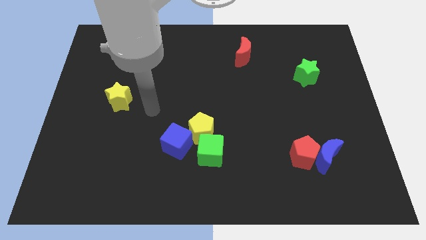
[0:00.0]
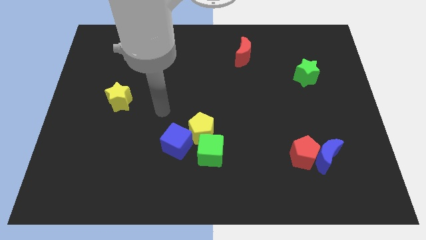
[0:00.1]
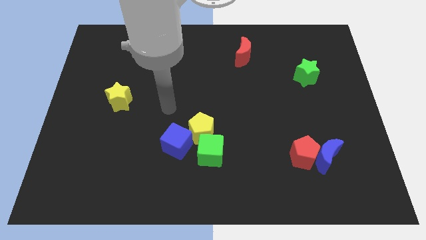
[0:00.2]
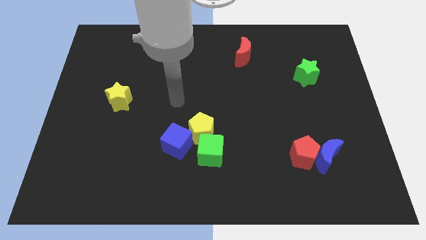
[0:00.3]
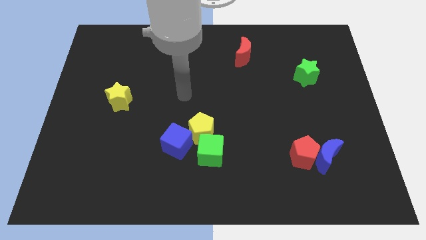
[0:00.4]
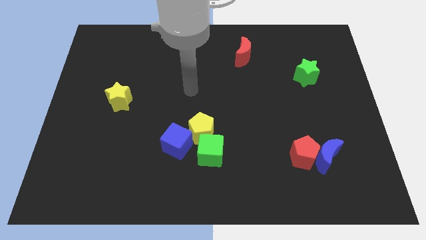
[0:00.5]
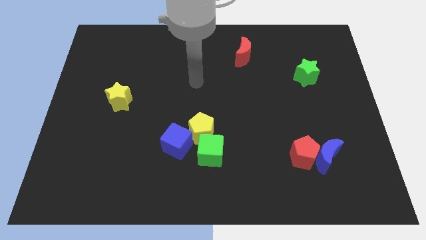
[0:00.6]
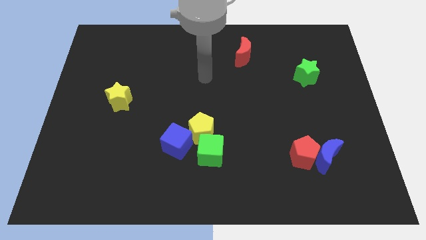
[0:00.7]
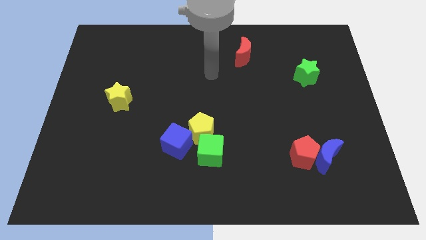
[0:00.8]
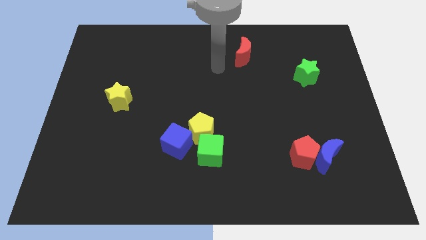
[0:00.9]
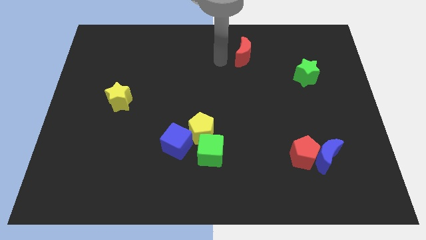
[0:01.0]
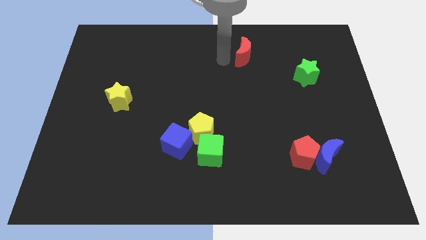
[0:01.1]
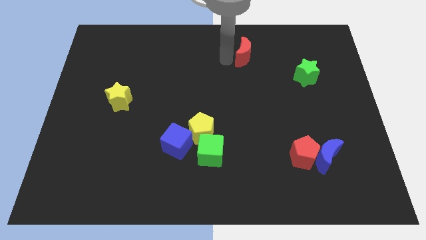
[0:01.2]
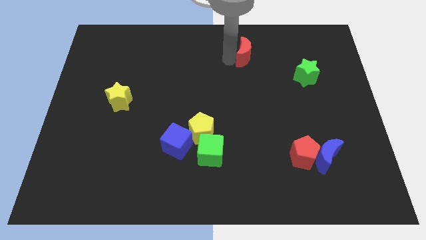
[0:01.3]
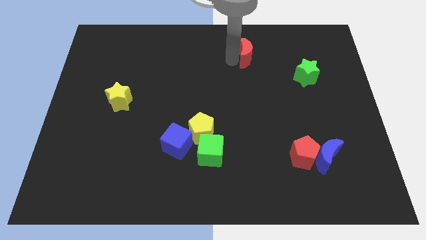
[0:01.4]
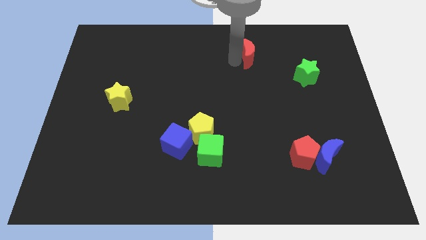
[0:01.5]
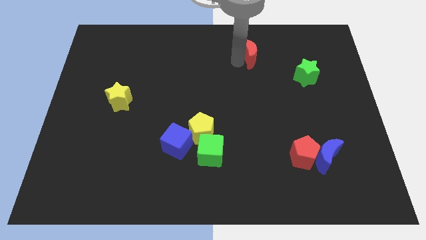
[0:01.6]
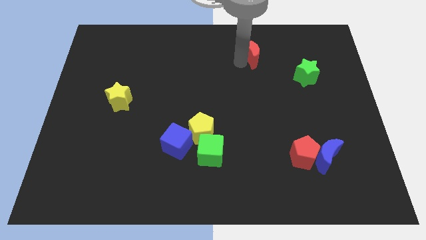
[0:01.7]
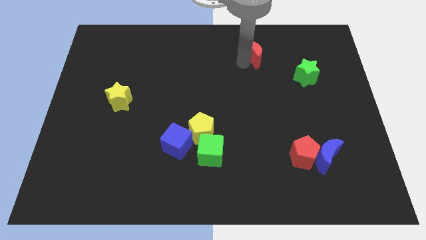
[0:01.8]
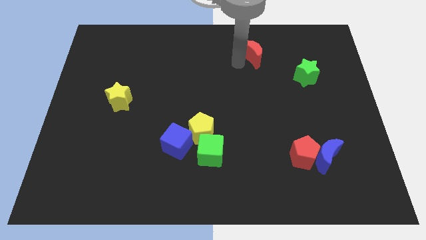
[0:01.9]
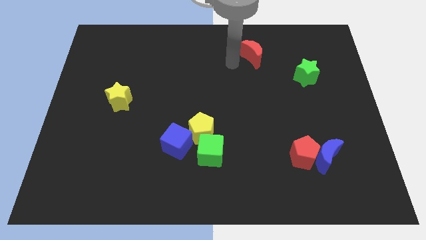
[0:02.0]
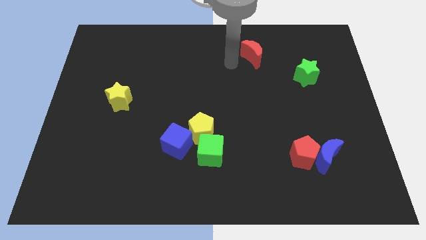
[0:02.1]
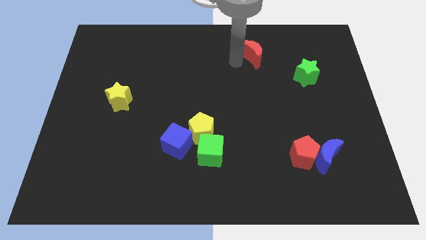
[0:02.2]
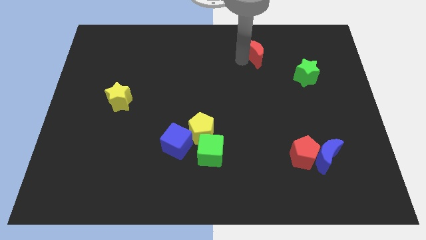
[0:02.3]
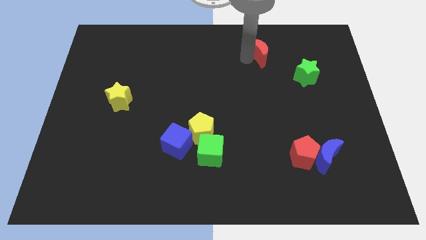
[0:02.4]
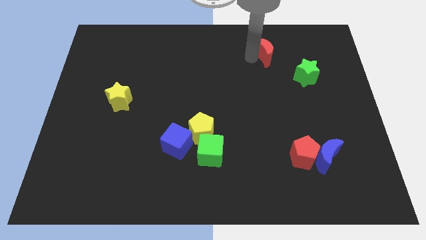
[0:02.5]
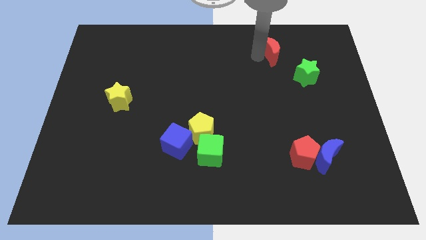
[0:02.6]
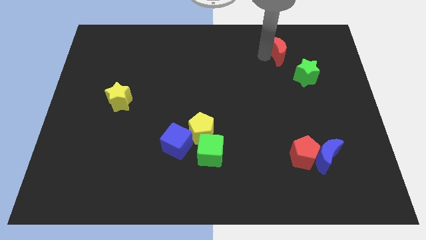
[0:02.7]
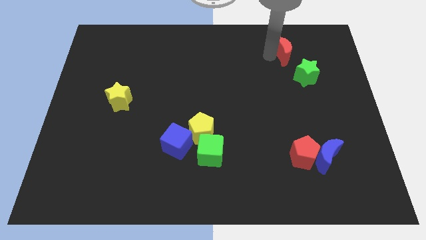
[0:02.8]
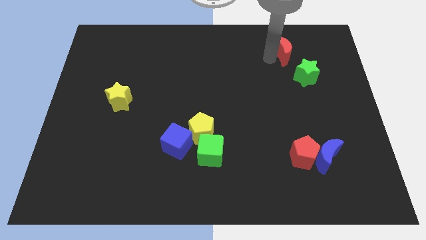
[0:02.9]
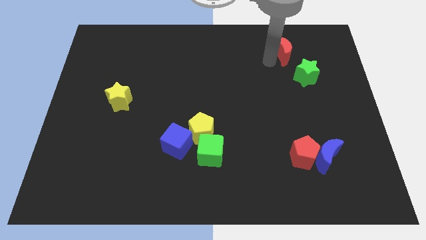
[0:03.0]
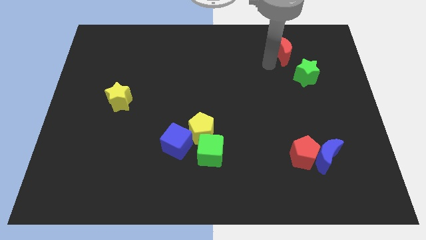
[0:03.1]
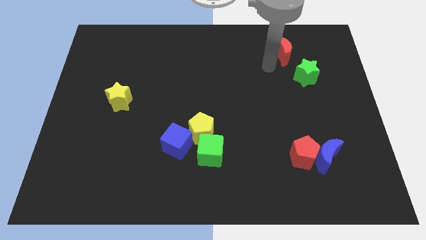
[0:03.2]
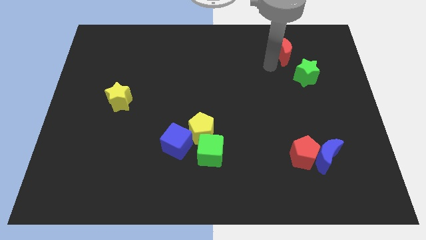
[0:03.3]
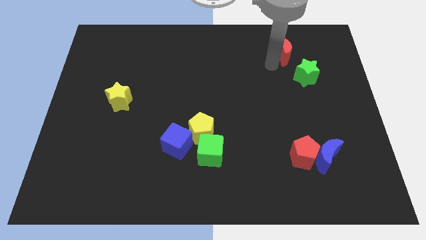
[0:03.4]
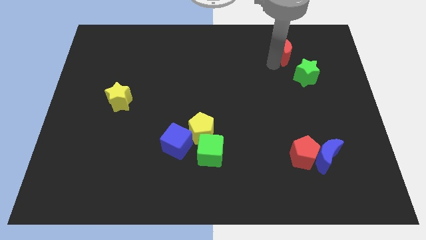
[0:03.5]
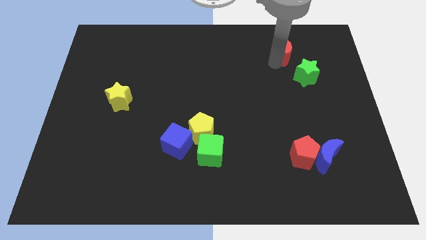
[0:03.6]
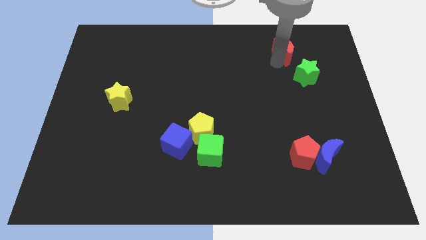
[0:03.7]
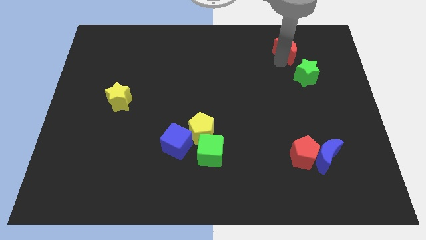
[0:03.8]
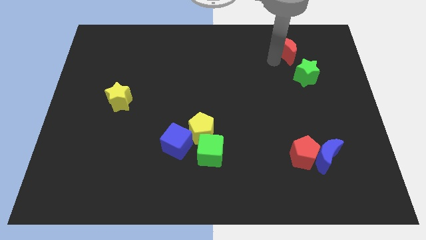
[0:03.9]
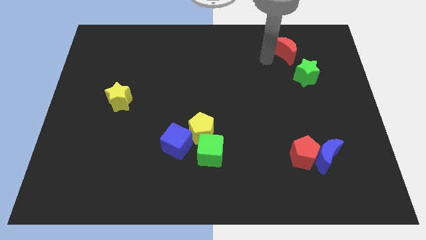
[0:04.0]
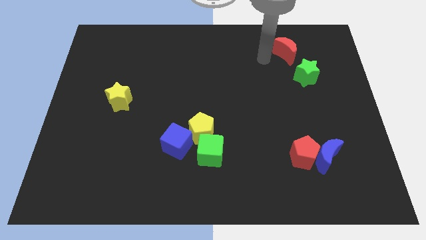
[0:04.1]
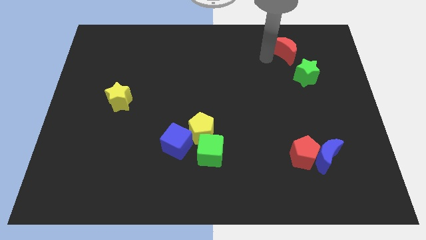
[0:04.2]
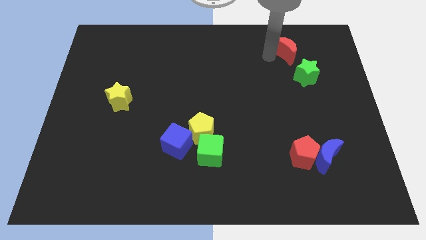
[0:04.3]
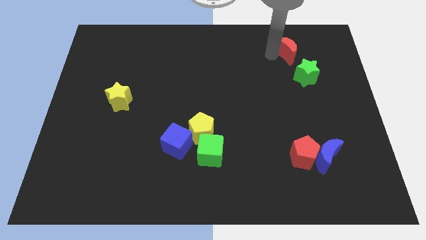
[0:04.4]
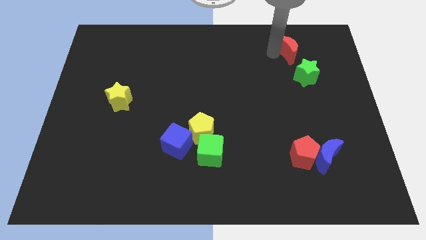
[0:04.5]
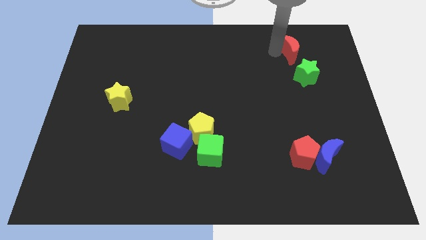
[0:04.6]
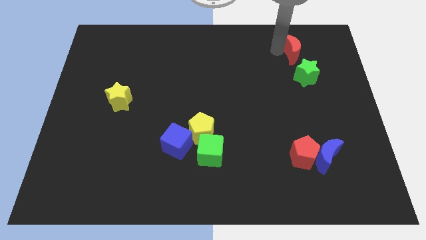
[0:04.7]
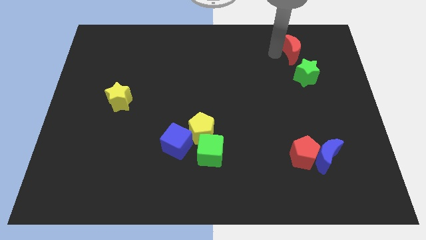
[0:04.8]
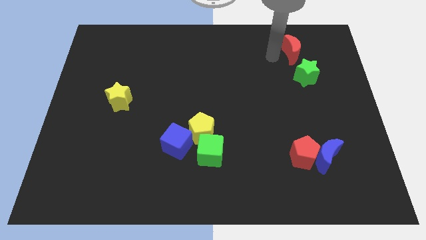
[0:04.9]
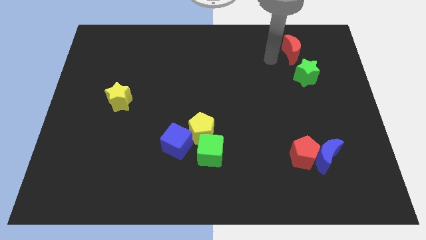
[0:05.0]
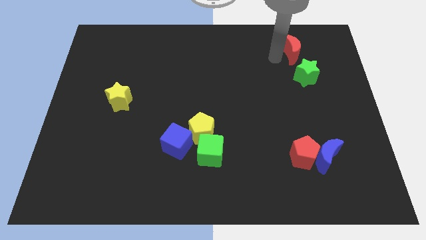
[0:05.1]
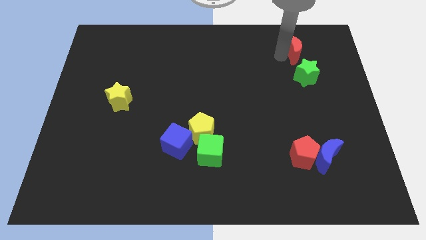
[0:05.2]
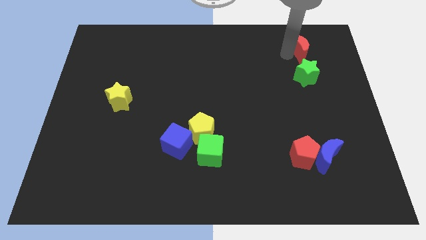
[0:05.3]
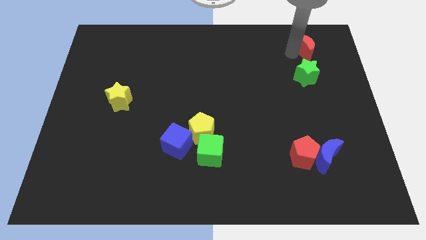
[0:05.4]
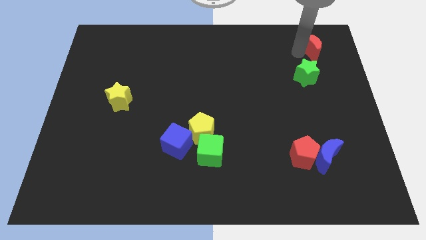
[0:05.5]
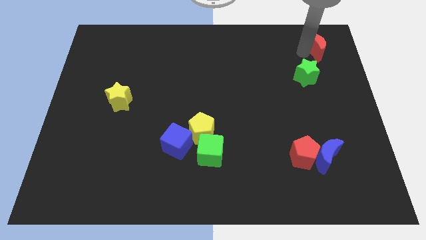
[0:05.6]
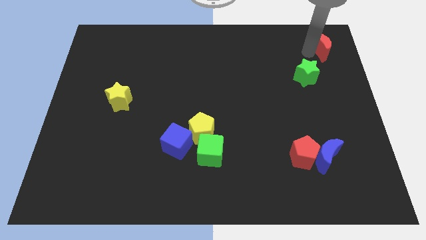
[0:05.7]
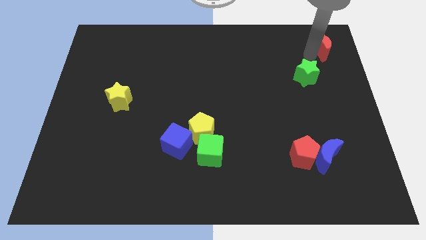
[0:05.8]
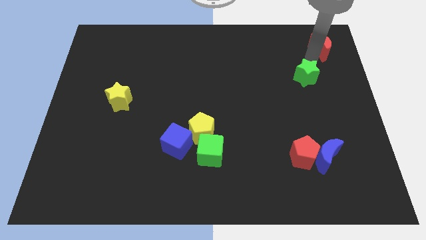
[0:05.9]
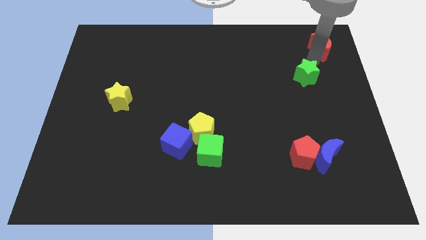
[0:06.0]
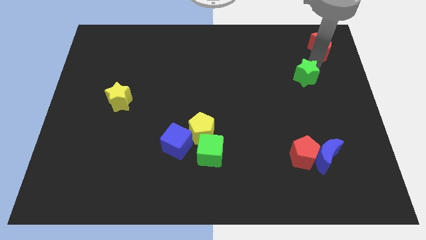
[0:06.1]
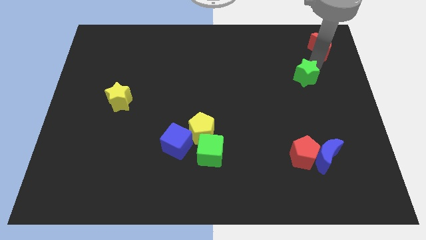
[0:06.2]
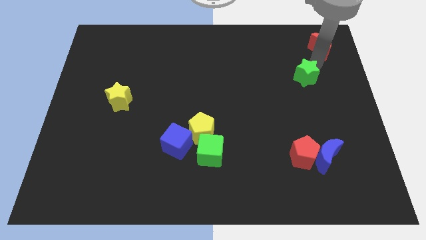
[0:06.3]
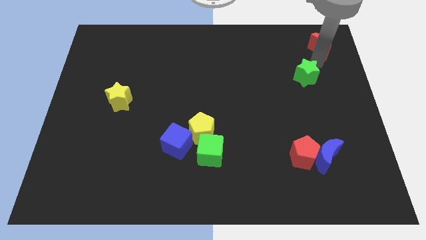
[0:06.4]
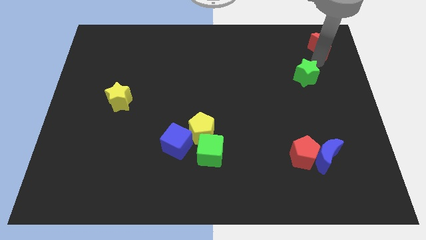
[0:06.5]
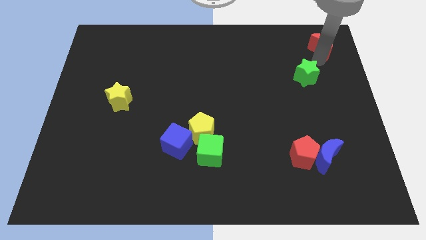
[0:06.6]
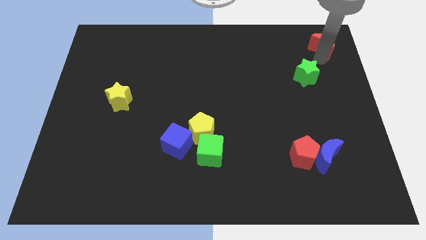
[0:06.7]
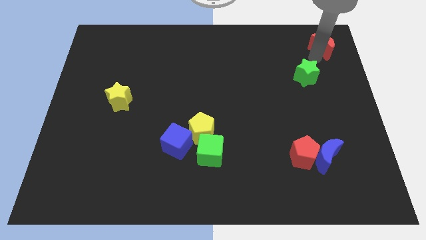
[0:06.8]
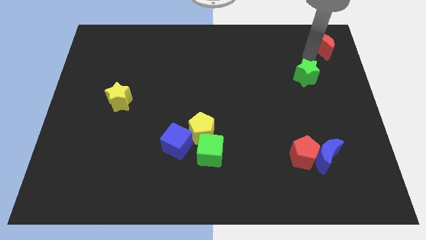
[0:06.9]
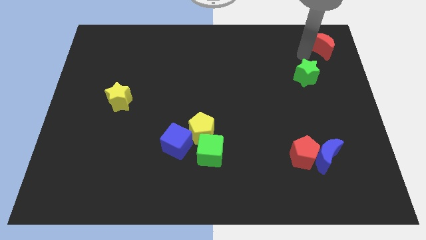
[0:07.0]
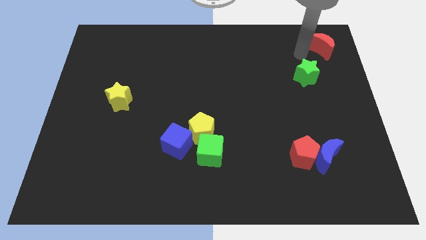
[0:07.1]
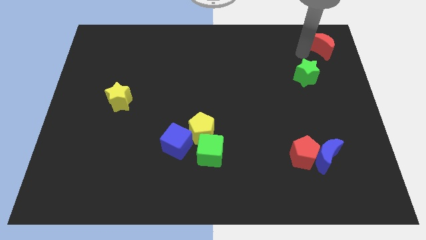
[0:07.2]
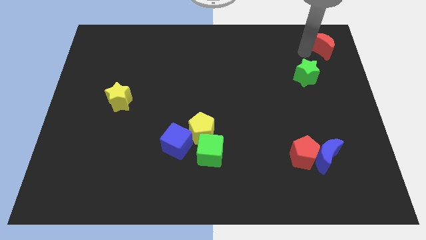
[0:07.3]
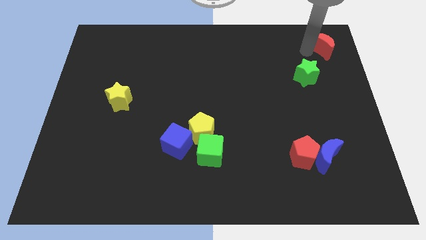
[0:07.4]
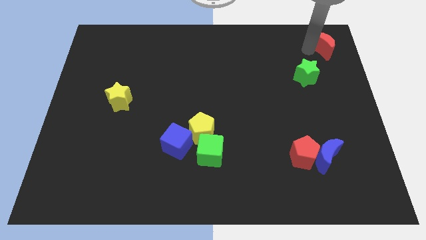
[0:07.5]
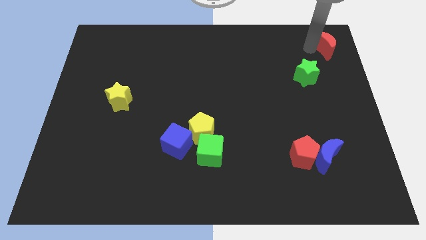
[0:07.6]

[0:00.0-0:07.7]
push the red moon to the top right corner
